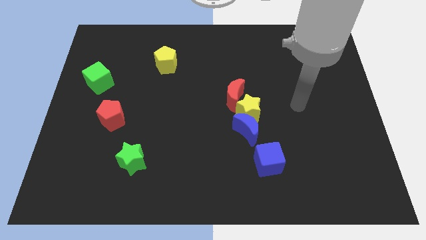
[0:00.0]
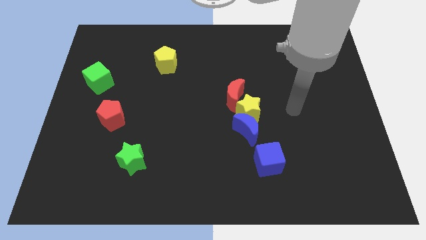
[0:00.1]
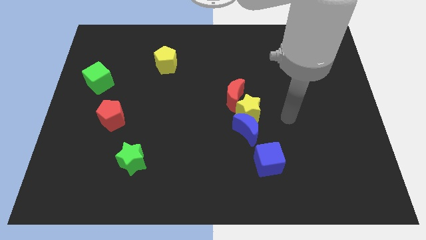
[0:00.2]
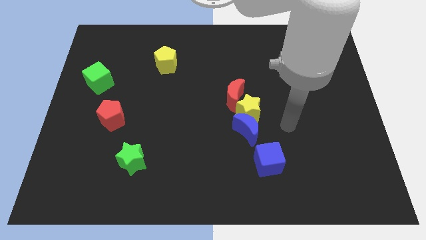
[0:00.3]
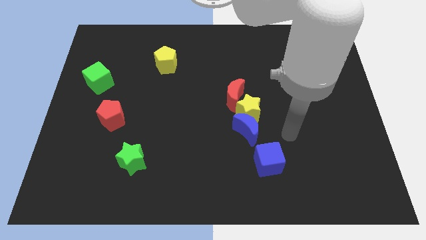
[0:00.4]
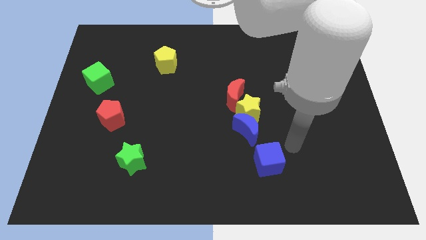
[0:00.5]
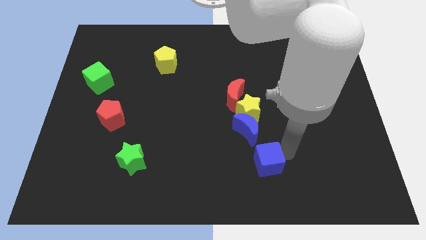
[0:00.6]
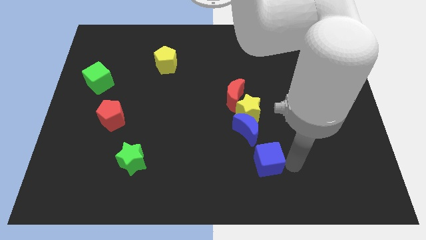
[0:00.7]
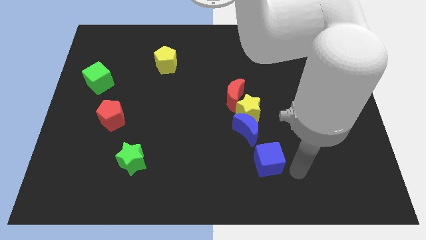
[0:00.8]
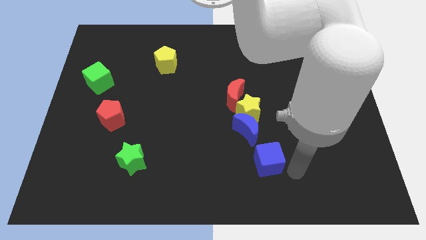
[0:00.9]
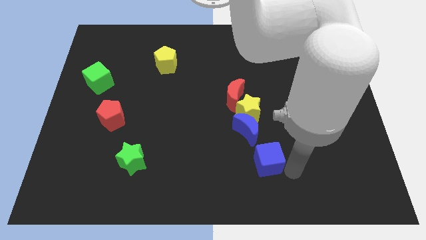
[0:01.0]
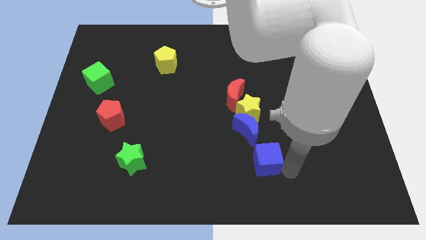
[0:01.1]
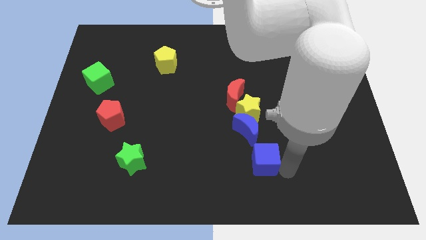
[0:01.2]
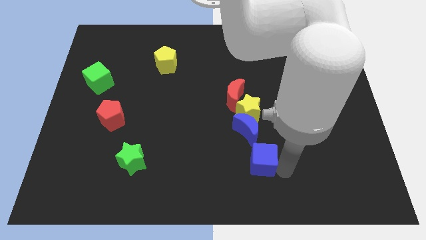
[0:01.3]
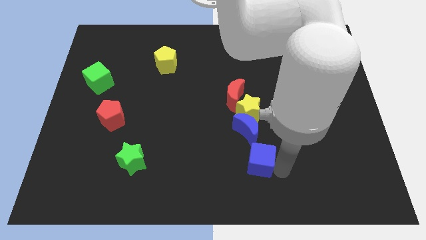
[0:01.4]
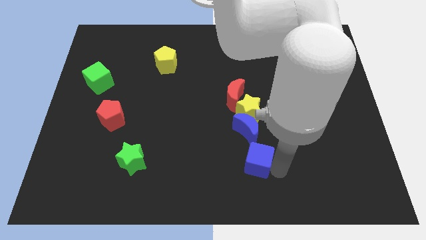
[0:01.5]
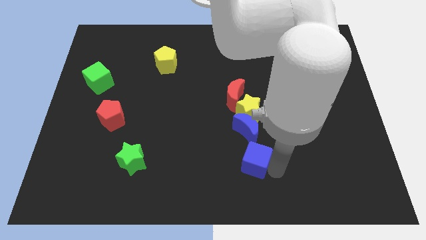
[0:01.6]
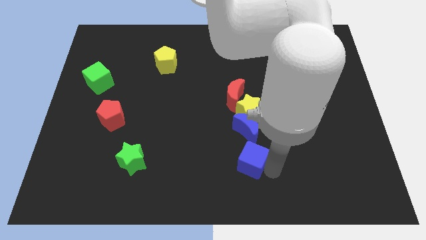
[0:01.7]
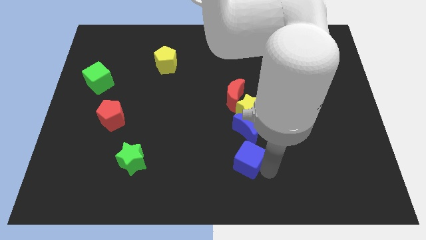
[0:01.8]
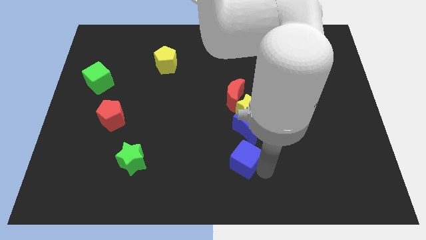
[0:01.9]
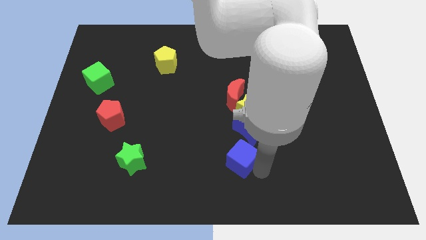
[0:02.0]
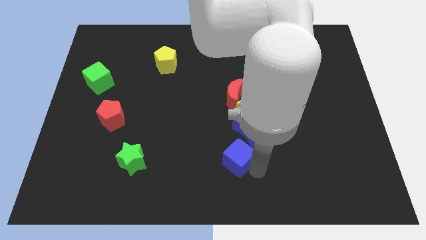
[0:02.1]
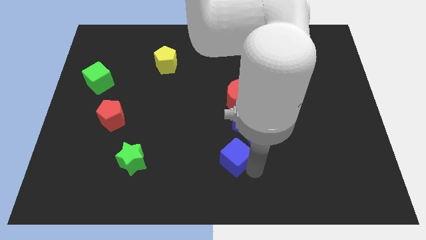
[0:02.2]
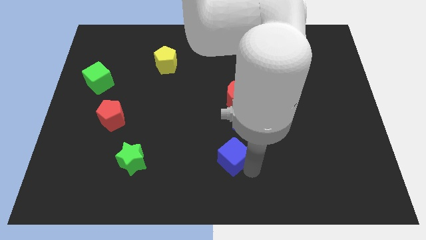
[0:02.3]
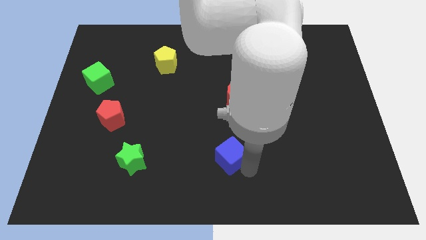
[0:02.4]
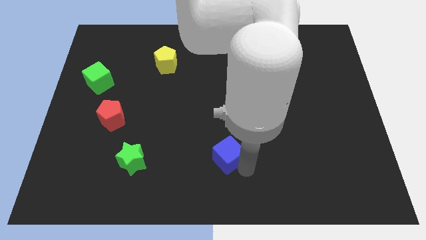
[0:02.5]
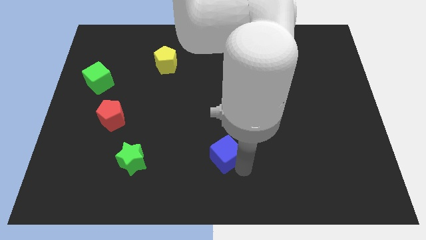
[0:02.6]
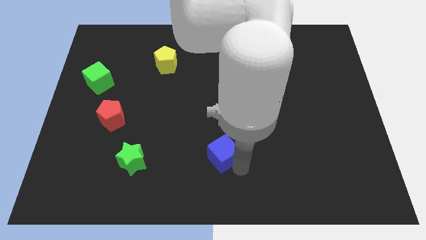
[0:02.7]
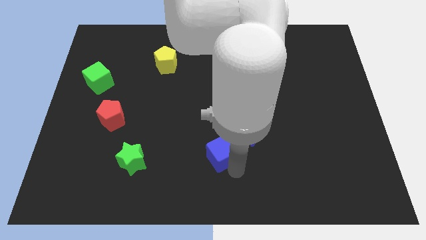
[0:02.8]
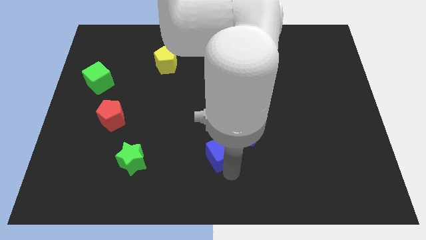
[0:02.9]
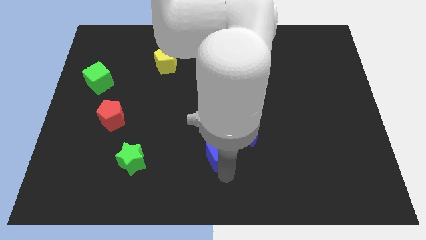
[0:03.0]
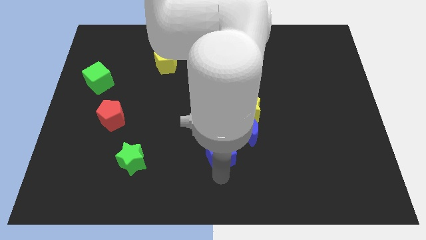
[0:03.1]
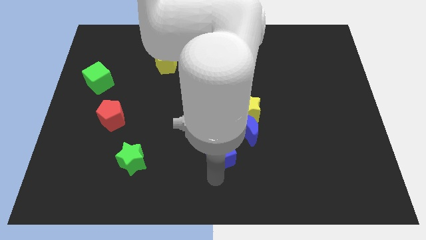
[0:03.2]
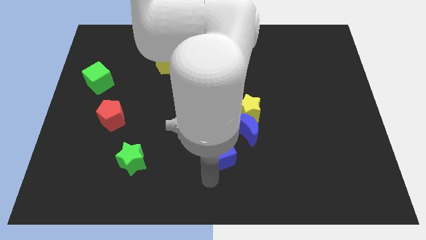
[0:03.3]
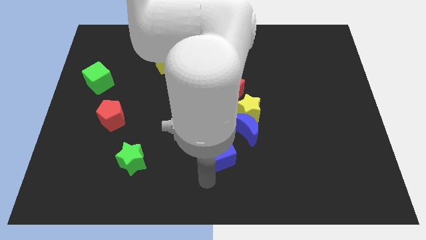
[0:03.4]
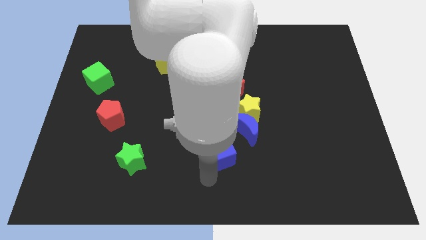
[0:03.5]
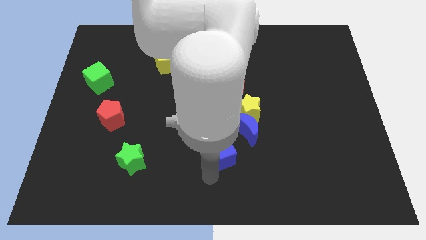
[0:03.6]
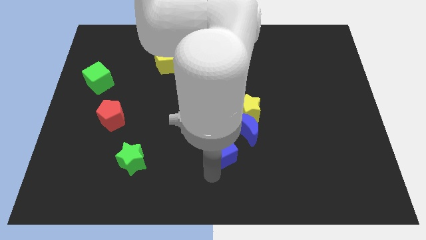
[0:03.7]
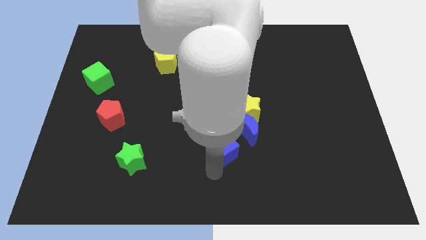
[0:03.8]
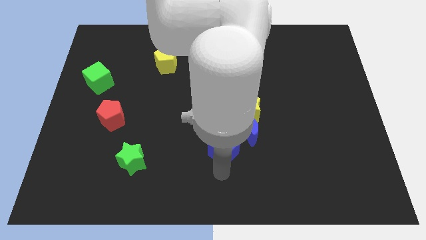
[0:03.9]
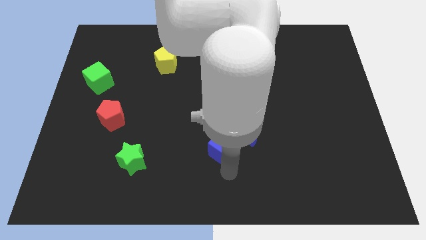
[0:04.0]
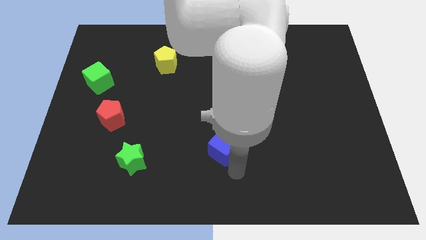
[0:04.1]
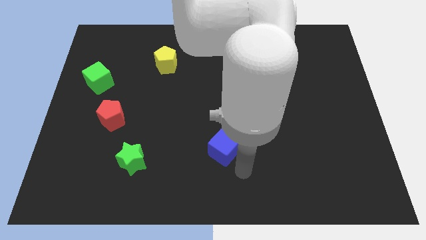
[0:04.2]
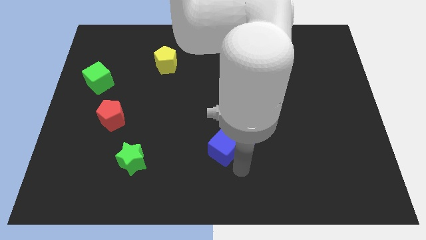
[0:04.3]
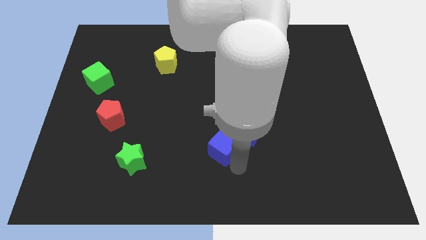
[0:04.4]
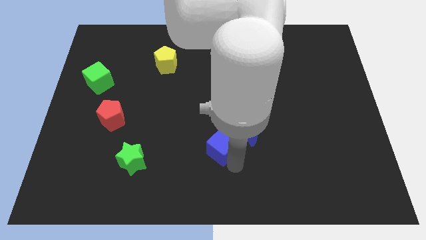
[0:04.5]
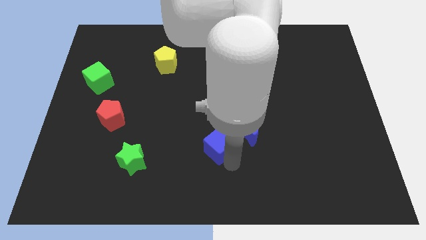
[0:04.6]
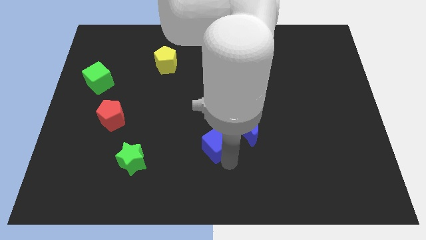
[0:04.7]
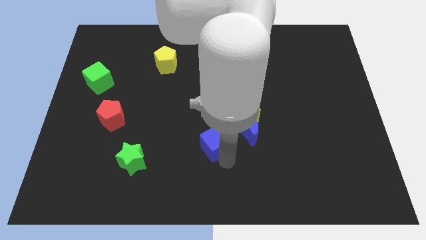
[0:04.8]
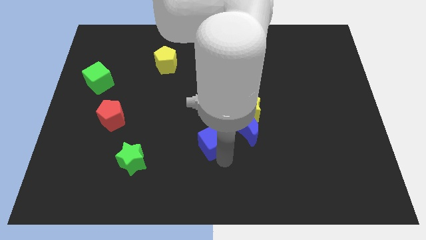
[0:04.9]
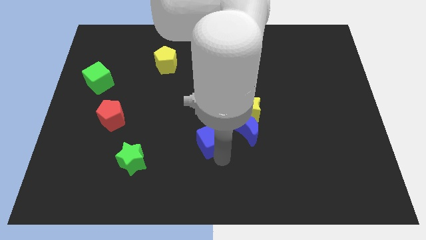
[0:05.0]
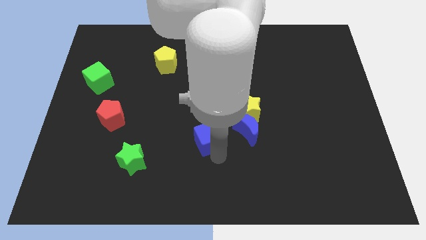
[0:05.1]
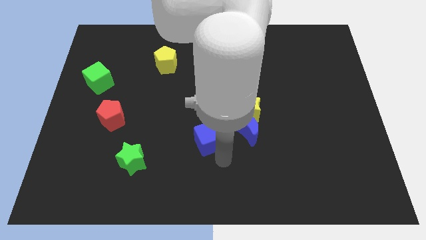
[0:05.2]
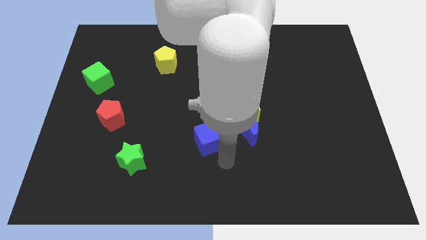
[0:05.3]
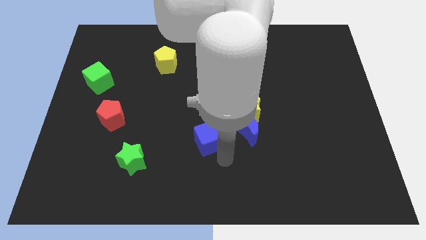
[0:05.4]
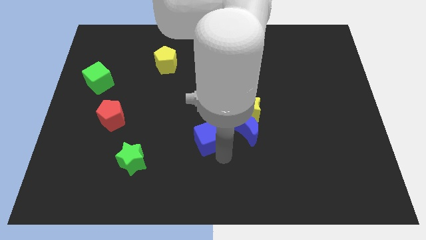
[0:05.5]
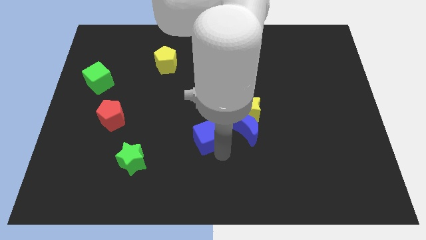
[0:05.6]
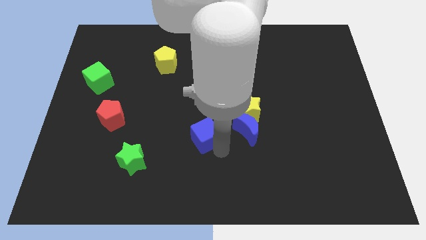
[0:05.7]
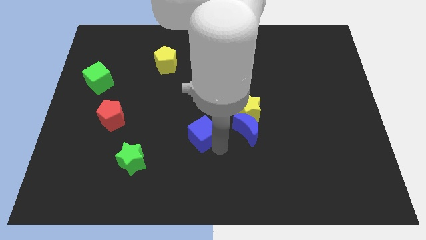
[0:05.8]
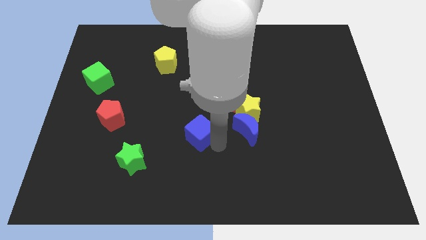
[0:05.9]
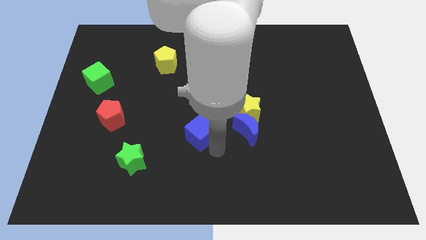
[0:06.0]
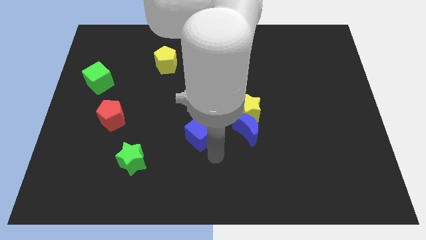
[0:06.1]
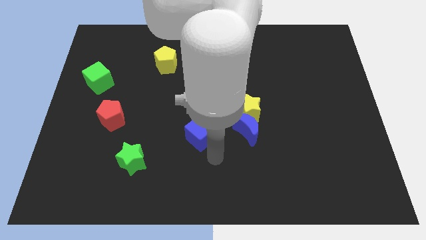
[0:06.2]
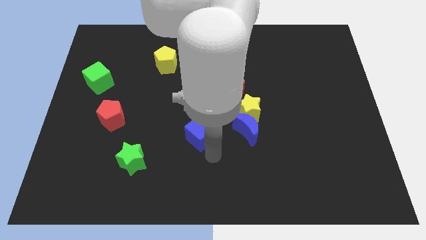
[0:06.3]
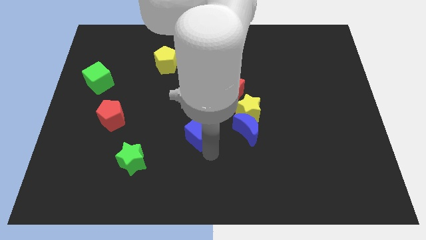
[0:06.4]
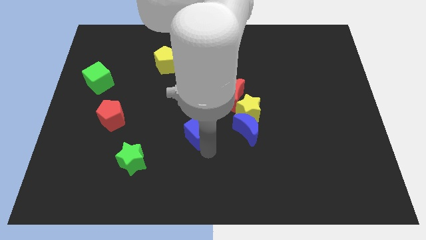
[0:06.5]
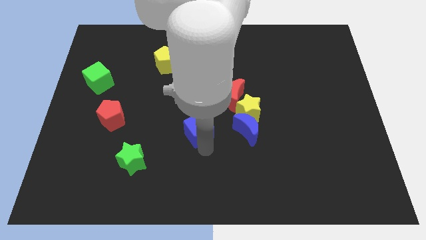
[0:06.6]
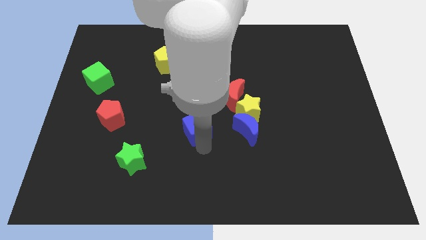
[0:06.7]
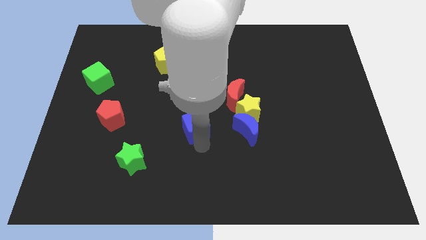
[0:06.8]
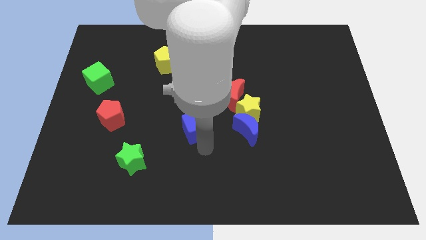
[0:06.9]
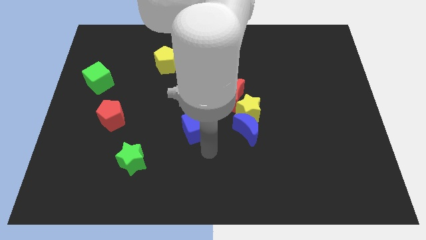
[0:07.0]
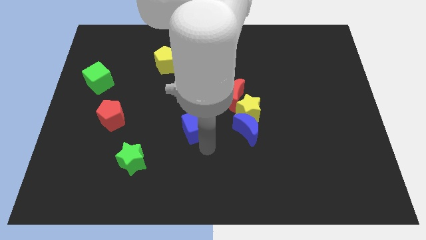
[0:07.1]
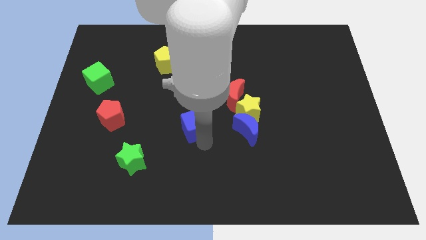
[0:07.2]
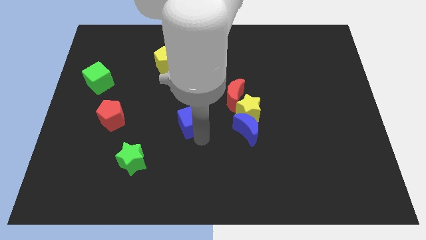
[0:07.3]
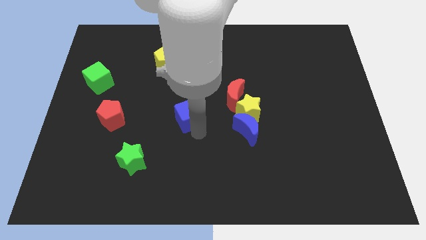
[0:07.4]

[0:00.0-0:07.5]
push the blue cube up and left

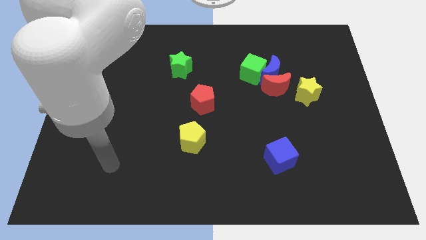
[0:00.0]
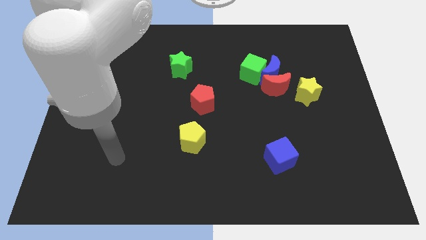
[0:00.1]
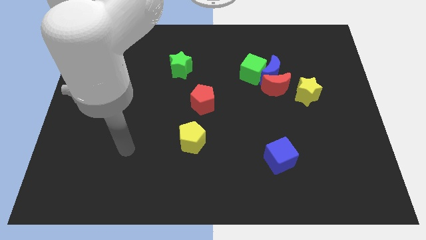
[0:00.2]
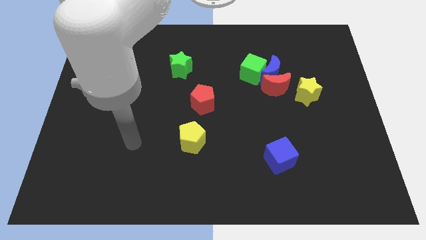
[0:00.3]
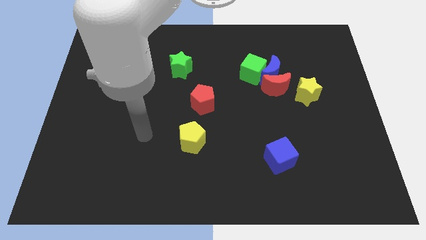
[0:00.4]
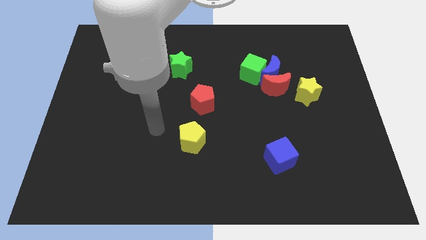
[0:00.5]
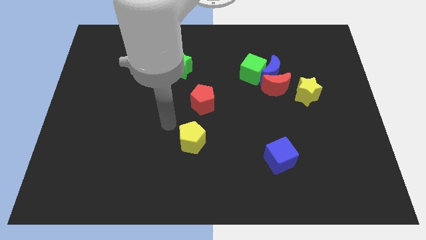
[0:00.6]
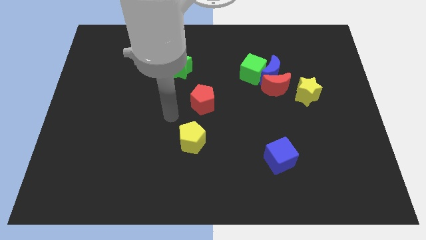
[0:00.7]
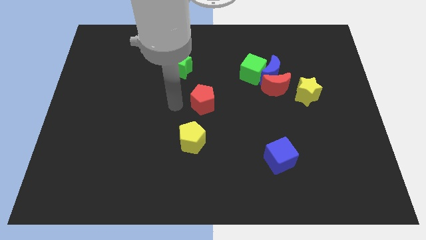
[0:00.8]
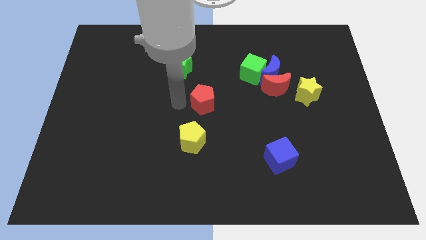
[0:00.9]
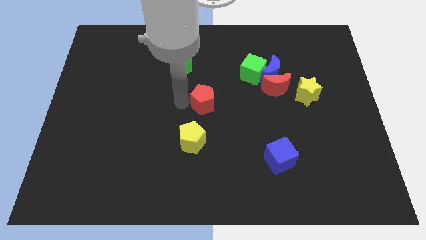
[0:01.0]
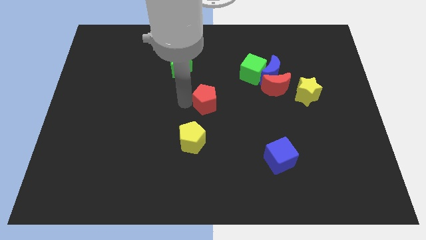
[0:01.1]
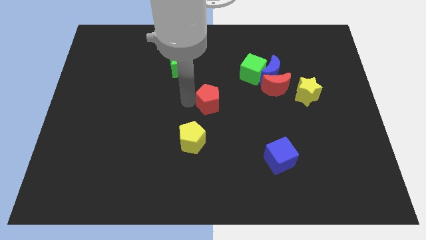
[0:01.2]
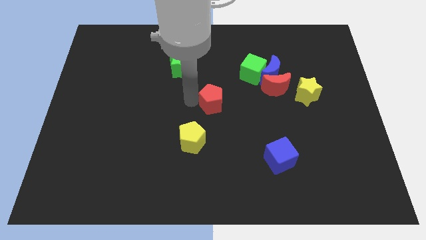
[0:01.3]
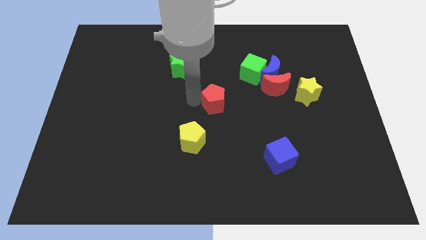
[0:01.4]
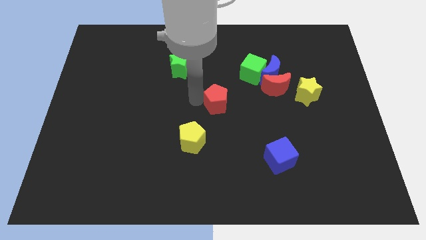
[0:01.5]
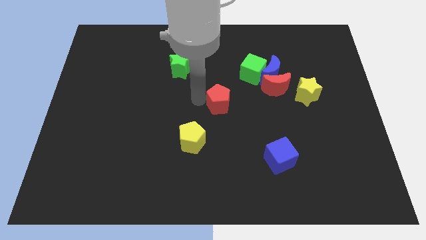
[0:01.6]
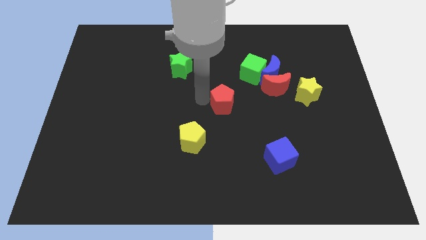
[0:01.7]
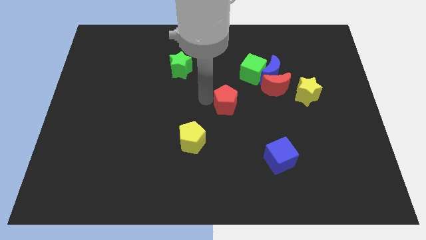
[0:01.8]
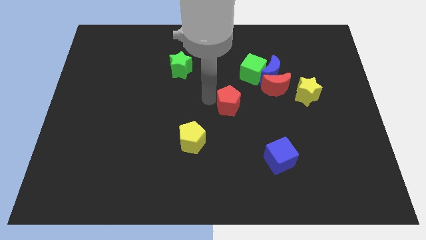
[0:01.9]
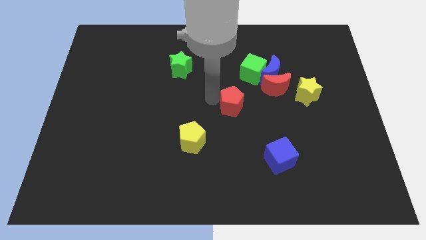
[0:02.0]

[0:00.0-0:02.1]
slightly push the red pentagon to the right
